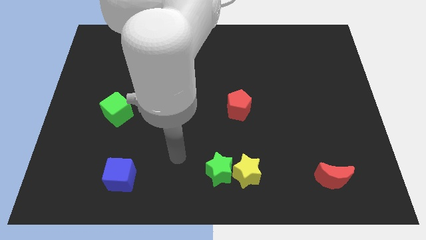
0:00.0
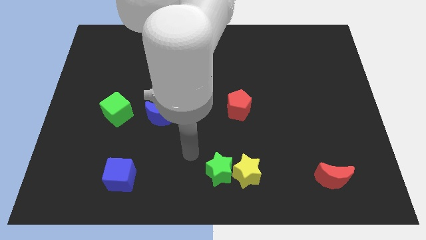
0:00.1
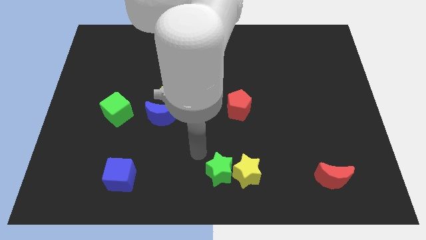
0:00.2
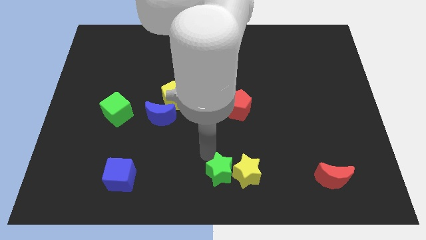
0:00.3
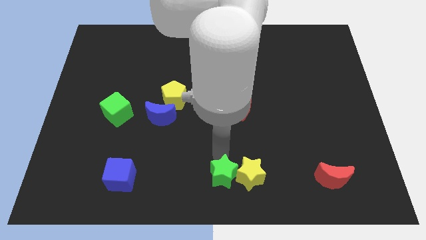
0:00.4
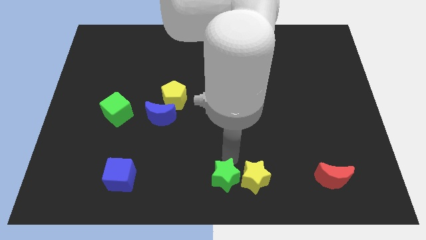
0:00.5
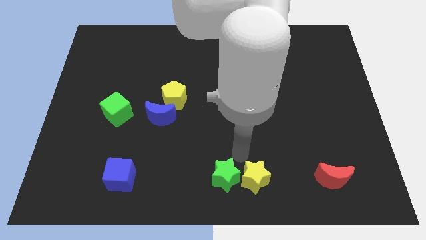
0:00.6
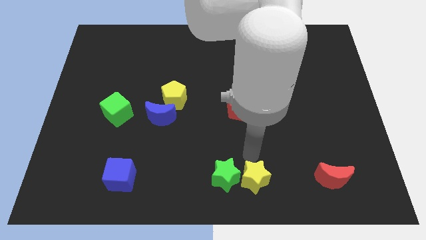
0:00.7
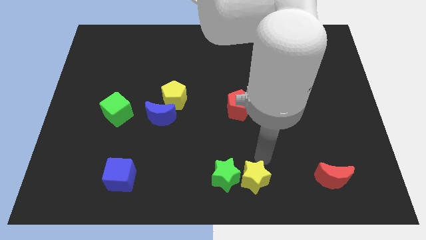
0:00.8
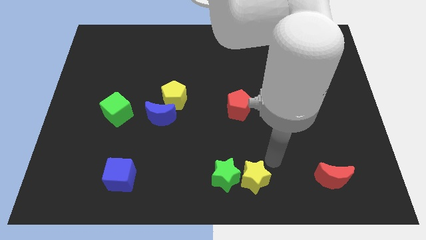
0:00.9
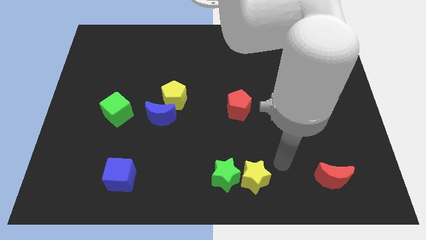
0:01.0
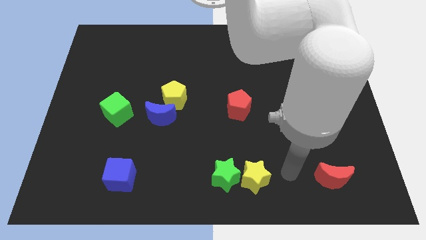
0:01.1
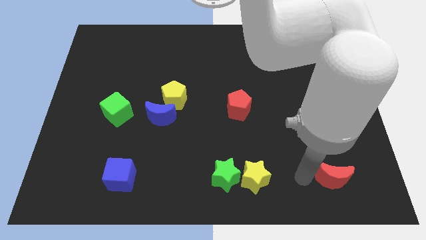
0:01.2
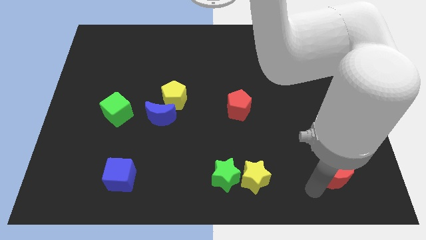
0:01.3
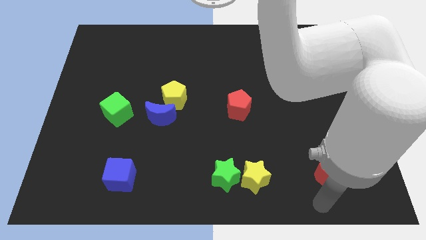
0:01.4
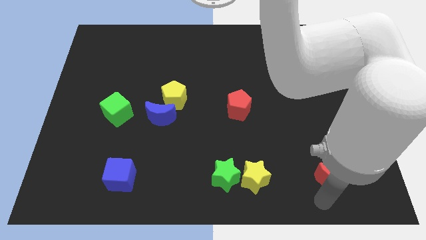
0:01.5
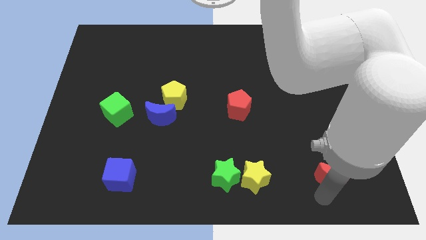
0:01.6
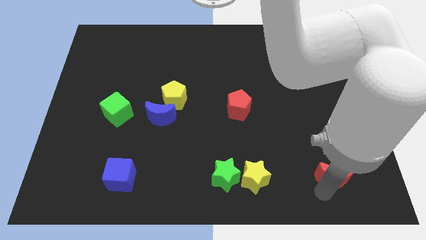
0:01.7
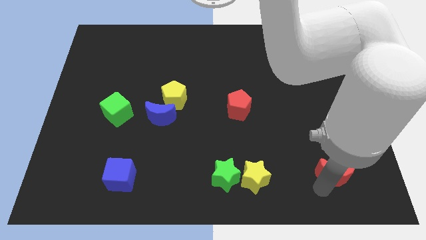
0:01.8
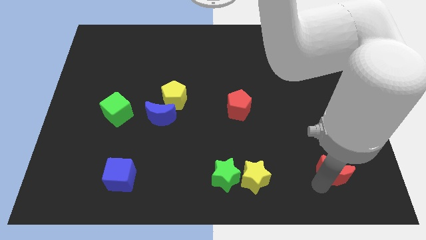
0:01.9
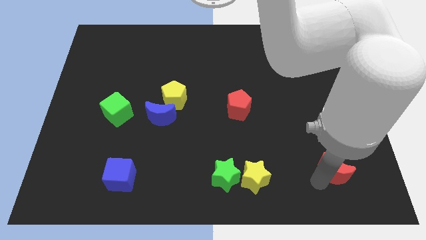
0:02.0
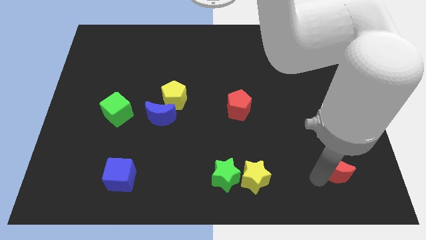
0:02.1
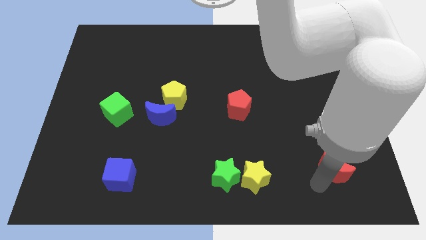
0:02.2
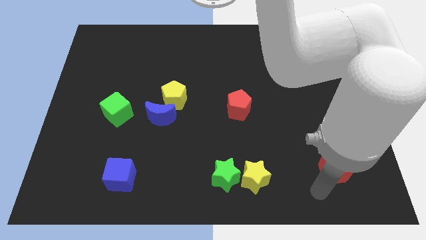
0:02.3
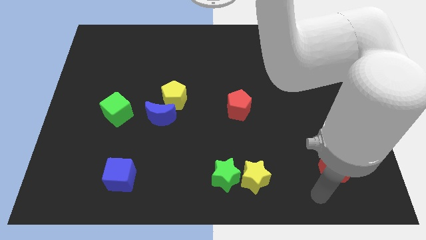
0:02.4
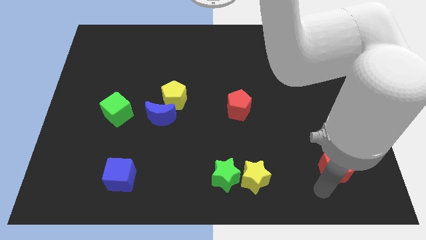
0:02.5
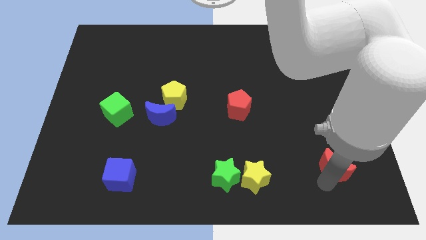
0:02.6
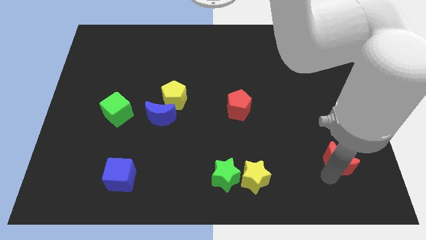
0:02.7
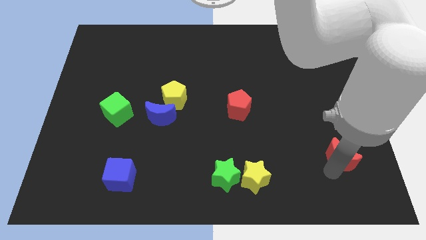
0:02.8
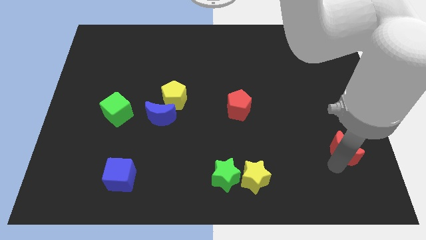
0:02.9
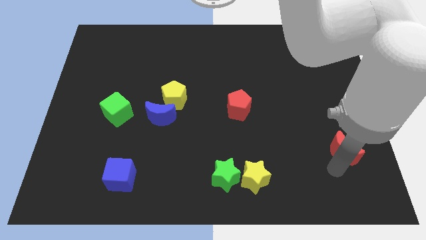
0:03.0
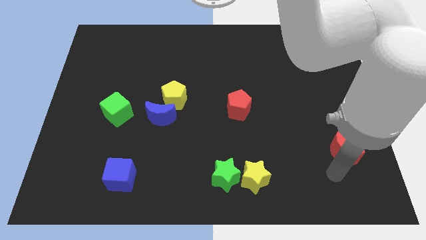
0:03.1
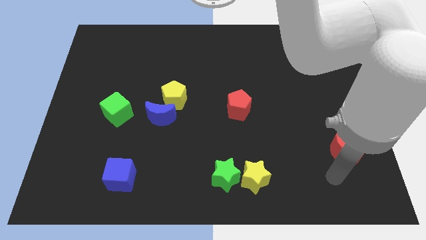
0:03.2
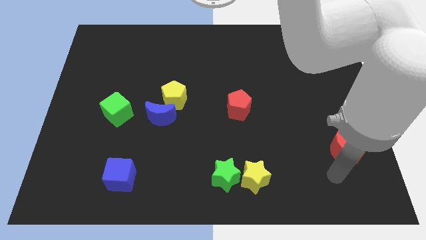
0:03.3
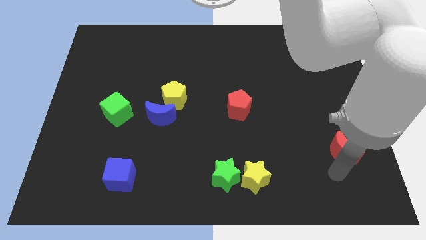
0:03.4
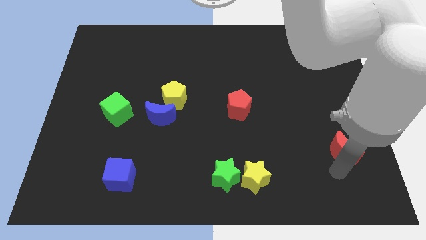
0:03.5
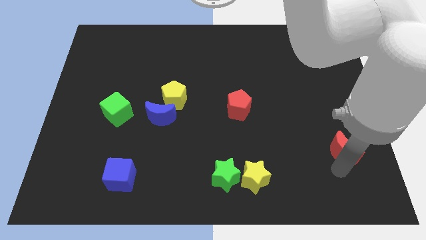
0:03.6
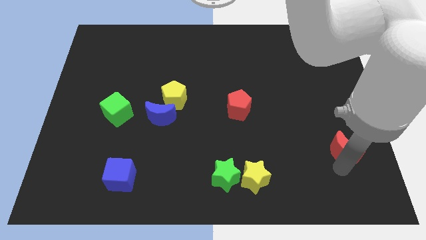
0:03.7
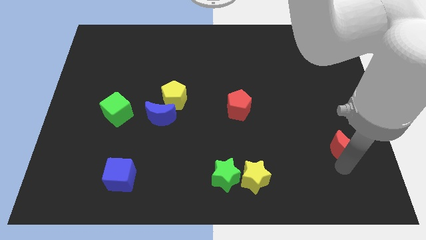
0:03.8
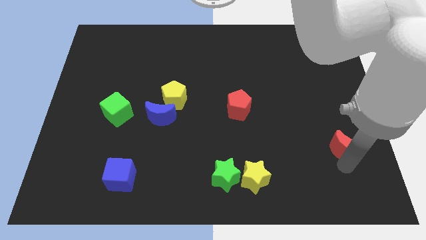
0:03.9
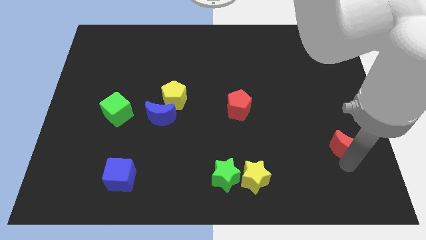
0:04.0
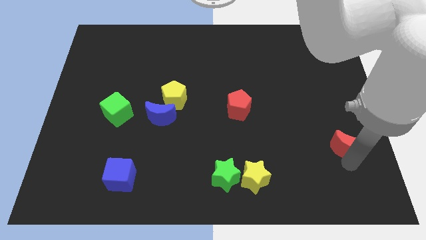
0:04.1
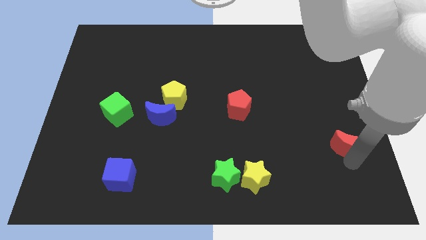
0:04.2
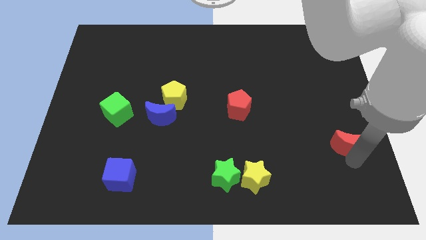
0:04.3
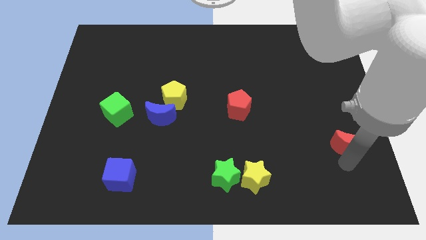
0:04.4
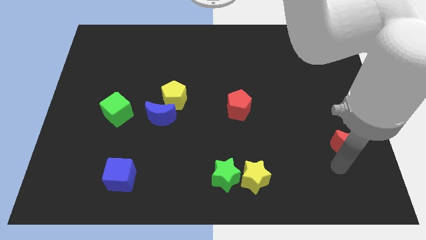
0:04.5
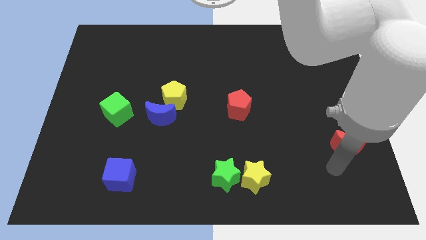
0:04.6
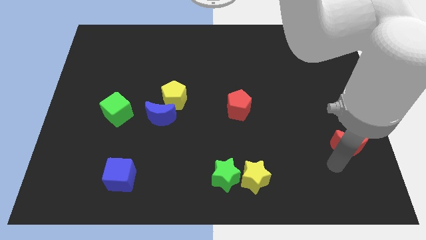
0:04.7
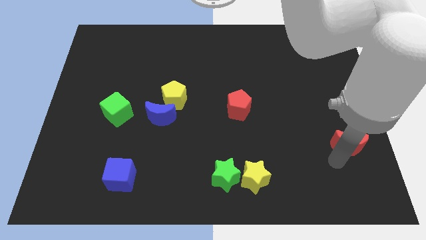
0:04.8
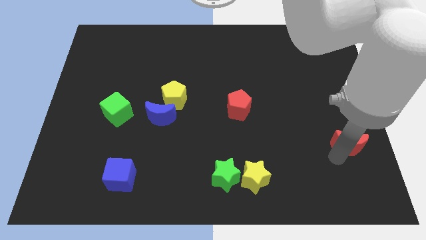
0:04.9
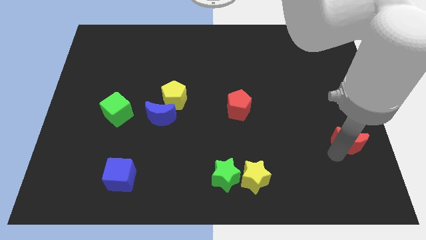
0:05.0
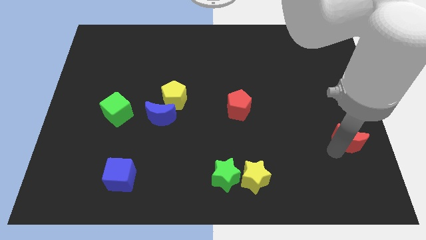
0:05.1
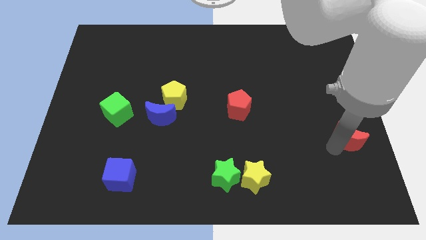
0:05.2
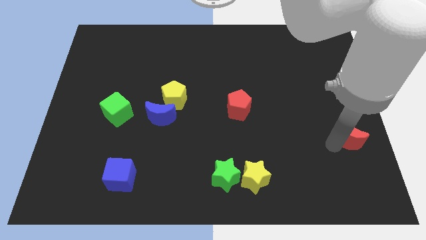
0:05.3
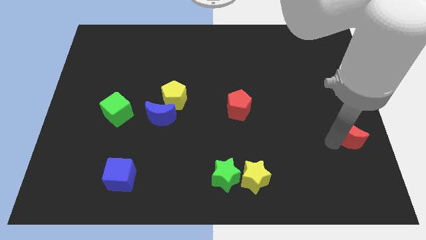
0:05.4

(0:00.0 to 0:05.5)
slide the red moon to the right side

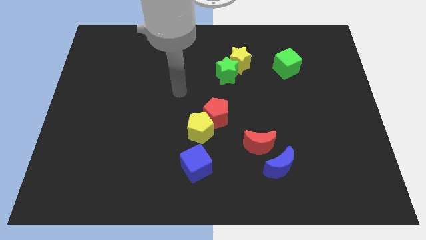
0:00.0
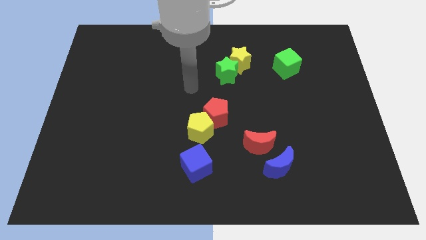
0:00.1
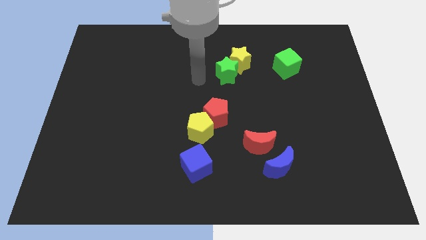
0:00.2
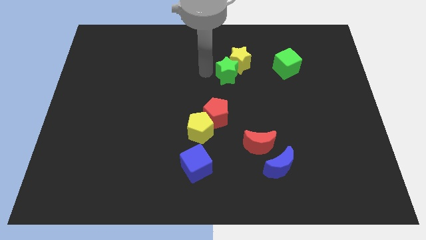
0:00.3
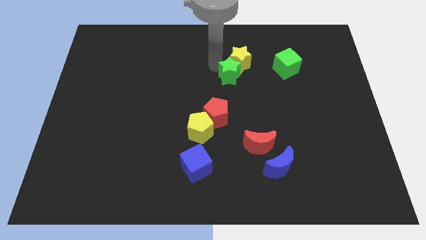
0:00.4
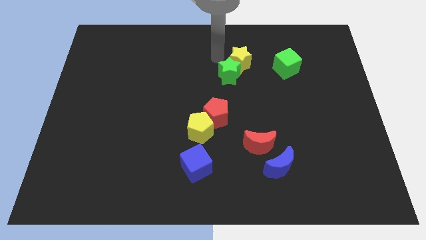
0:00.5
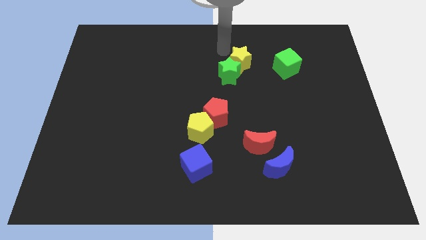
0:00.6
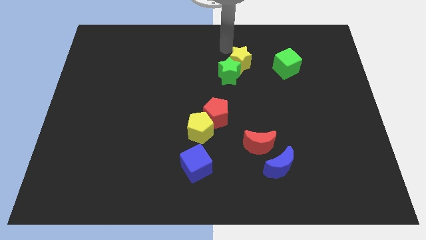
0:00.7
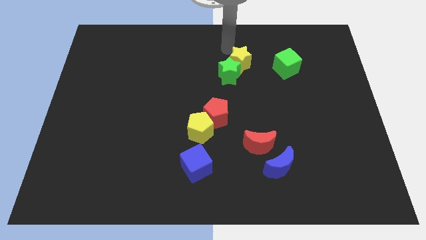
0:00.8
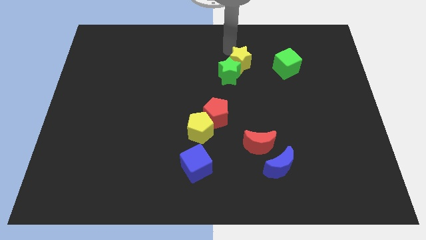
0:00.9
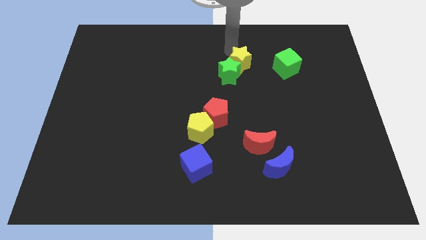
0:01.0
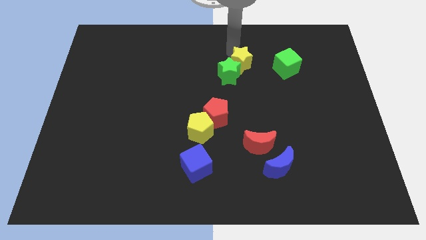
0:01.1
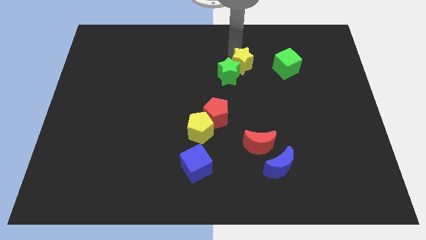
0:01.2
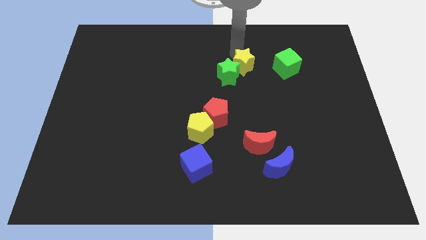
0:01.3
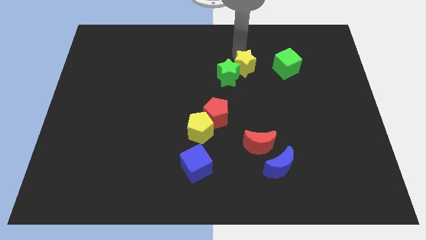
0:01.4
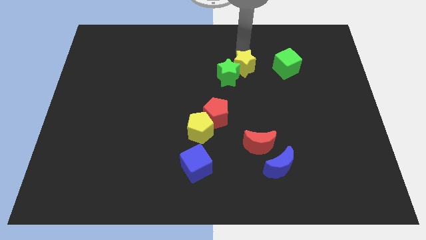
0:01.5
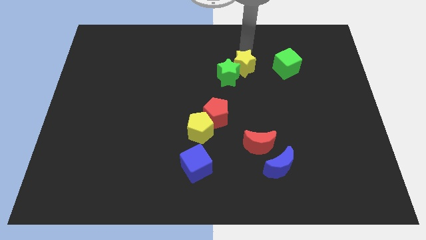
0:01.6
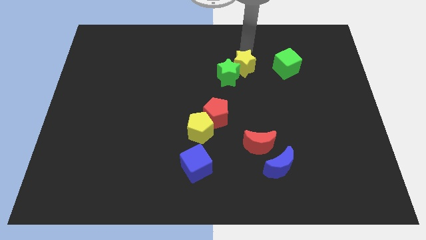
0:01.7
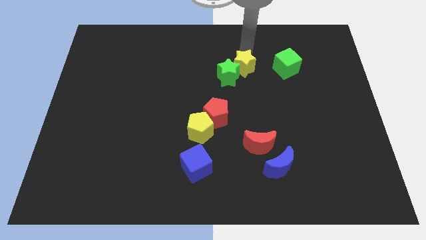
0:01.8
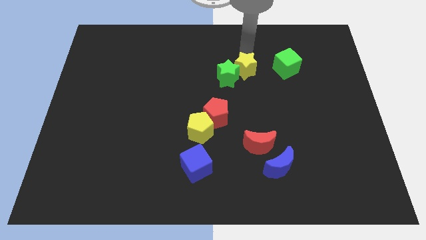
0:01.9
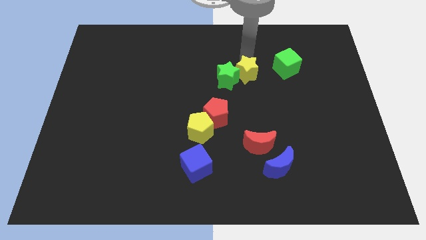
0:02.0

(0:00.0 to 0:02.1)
put the yellow star to the middle
